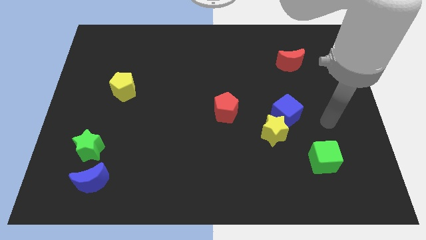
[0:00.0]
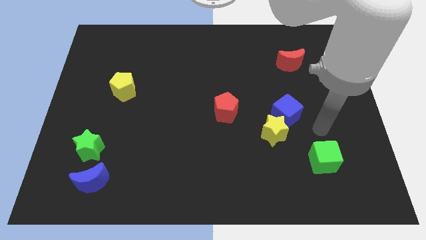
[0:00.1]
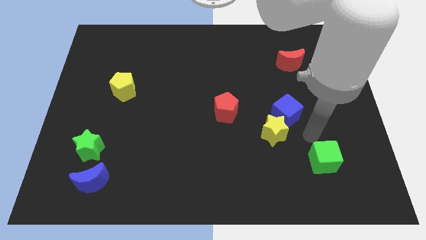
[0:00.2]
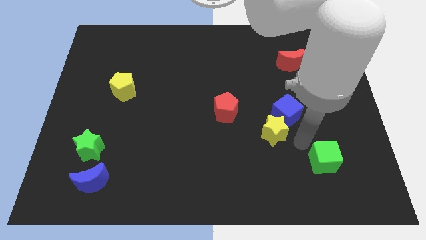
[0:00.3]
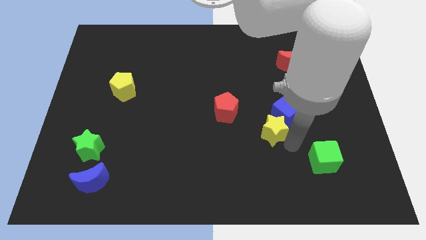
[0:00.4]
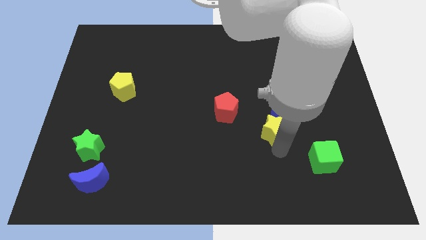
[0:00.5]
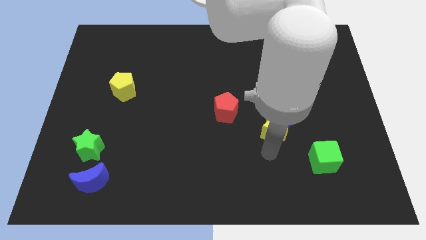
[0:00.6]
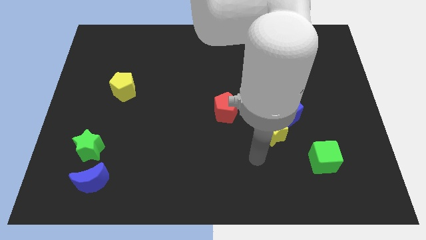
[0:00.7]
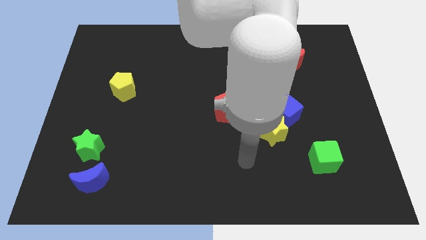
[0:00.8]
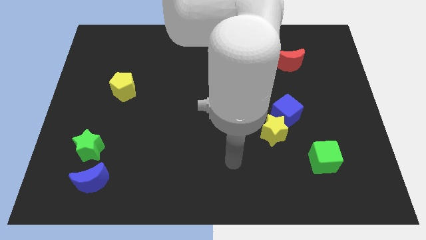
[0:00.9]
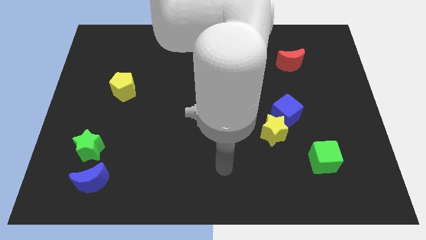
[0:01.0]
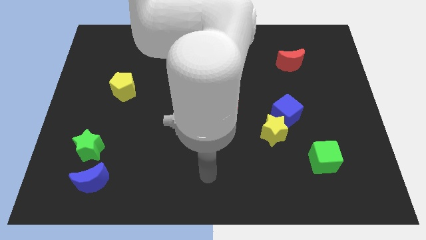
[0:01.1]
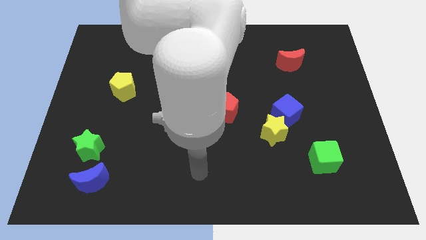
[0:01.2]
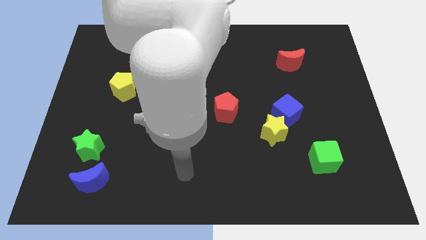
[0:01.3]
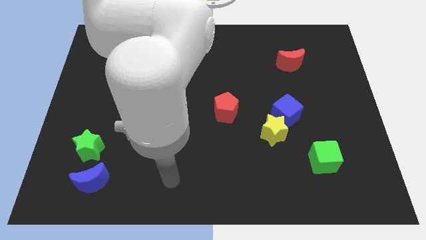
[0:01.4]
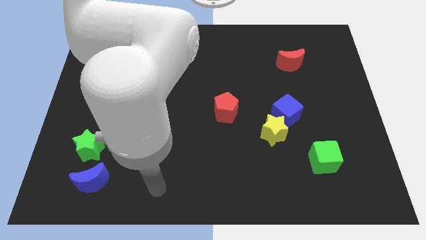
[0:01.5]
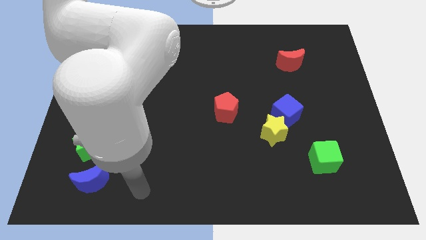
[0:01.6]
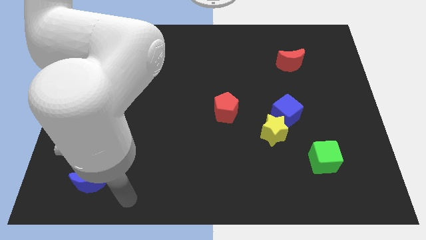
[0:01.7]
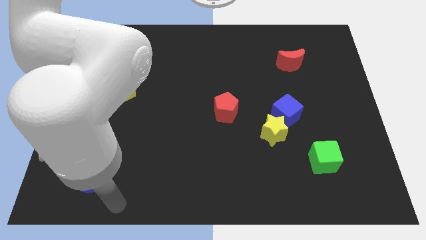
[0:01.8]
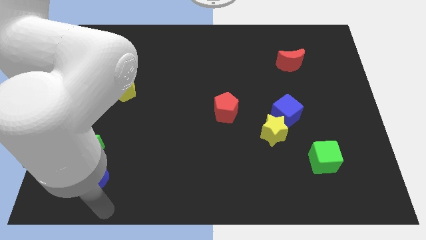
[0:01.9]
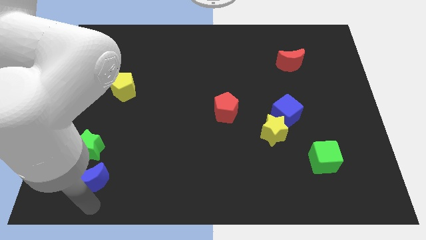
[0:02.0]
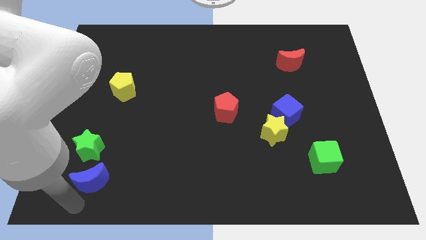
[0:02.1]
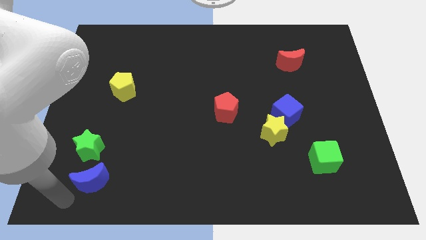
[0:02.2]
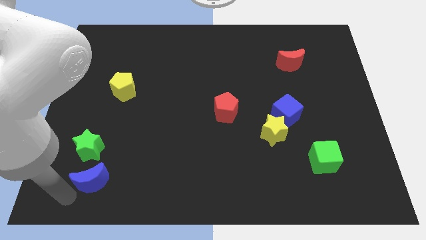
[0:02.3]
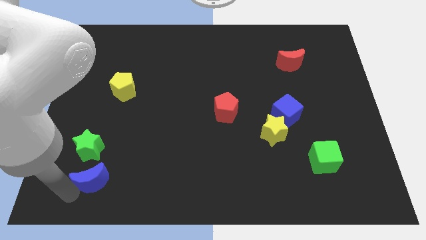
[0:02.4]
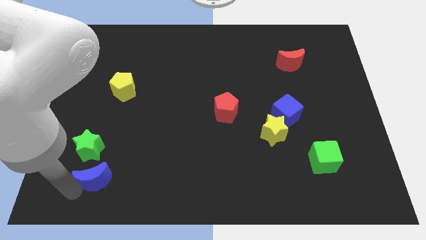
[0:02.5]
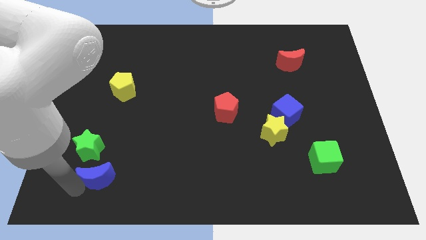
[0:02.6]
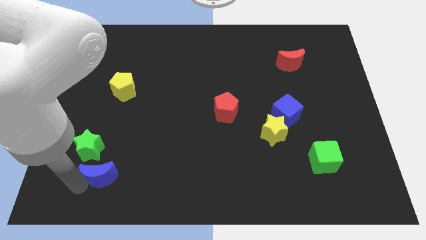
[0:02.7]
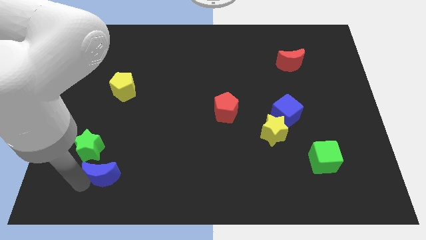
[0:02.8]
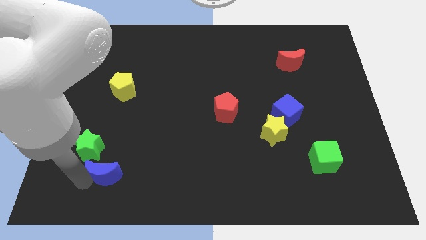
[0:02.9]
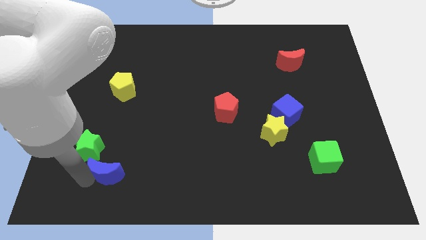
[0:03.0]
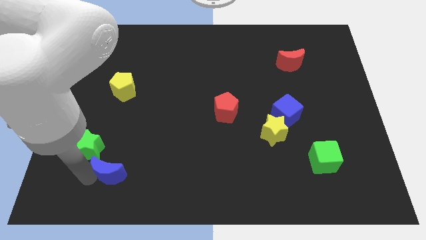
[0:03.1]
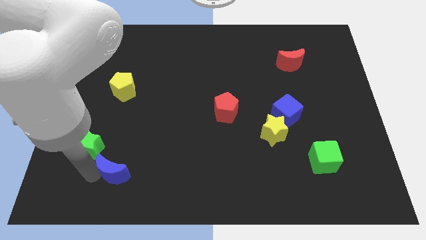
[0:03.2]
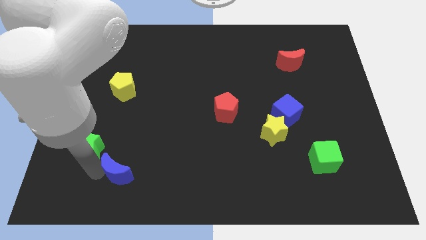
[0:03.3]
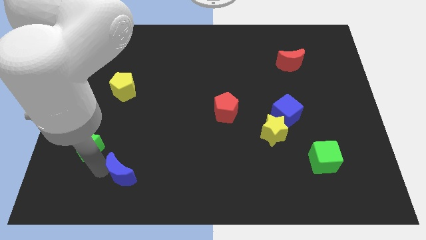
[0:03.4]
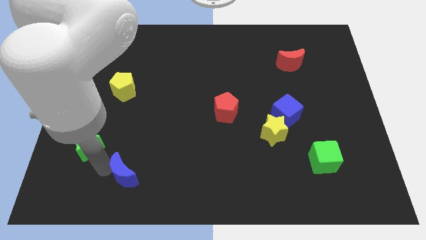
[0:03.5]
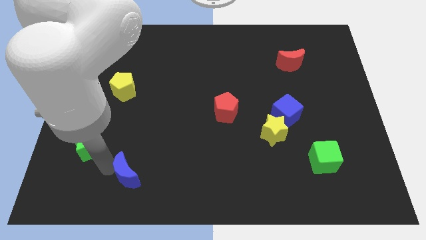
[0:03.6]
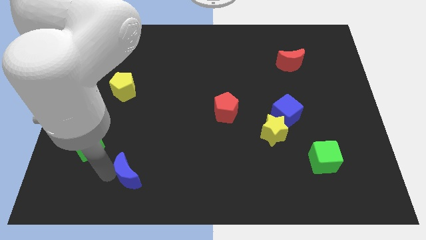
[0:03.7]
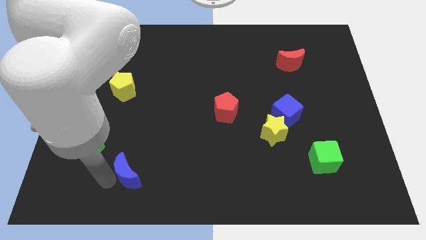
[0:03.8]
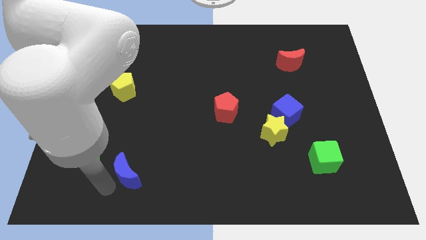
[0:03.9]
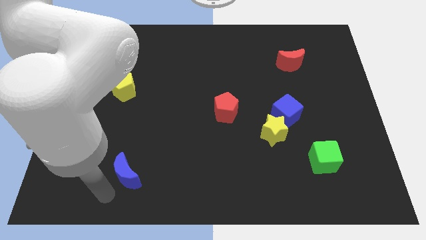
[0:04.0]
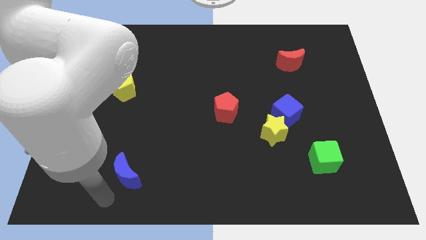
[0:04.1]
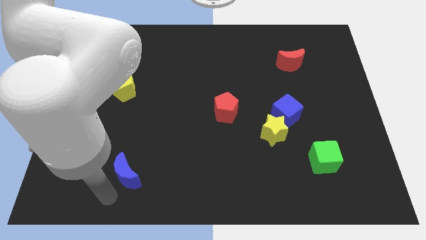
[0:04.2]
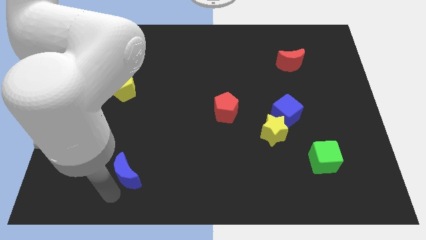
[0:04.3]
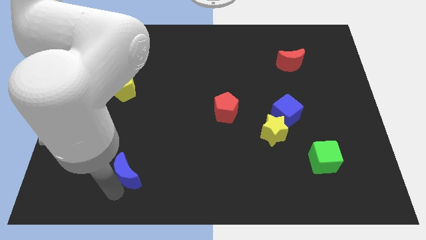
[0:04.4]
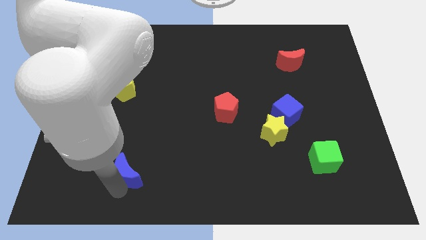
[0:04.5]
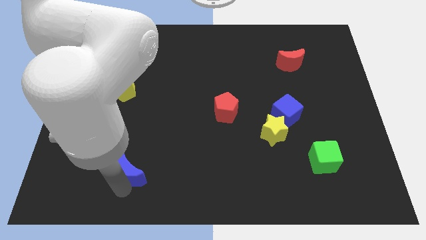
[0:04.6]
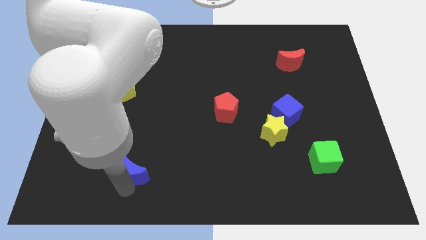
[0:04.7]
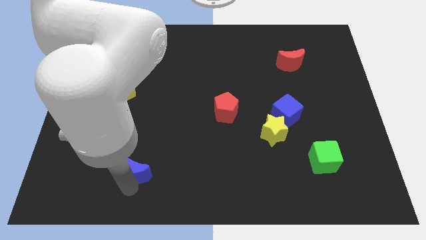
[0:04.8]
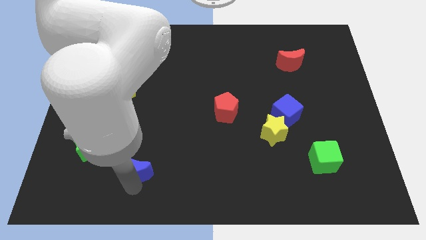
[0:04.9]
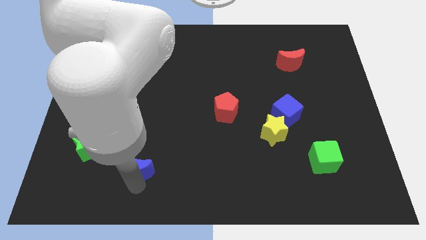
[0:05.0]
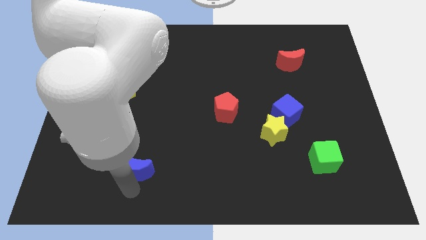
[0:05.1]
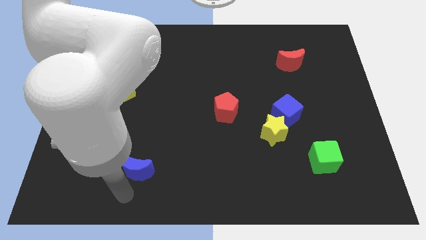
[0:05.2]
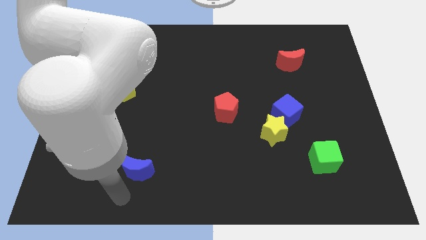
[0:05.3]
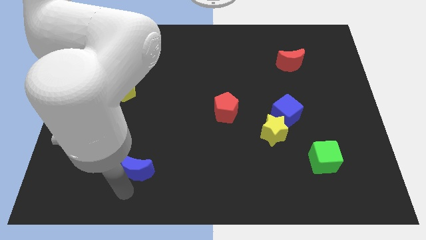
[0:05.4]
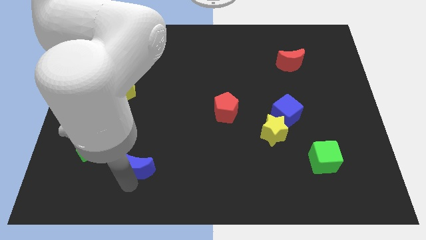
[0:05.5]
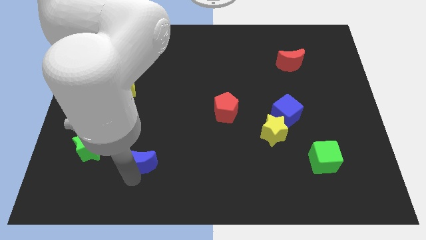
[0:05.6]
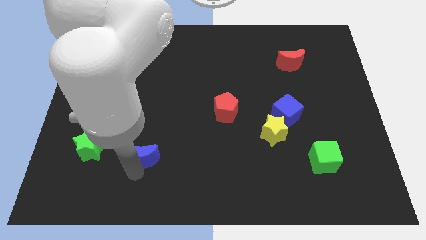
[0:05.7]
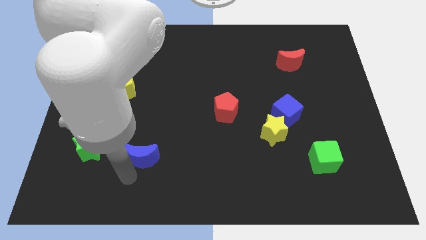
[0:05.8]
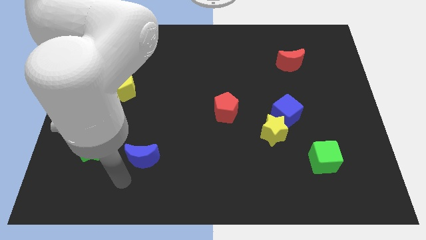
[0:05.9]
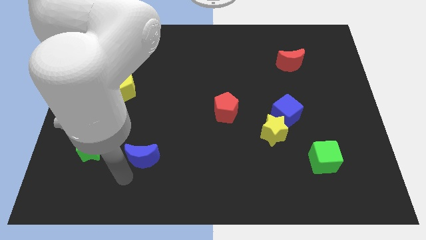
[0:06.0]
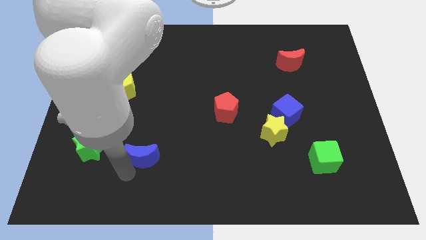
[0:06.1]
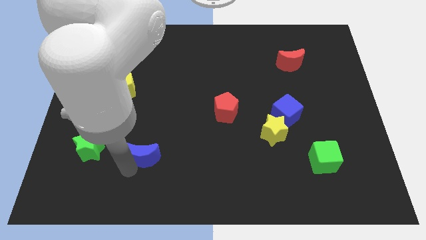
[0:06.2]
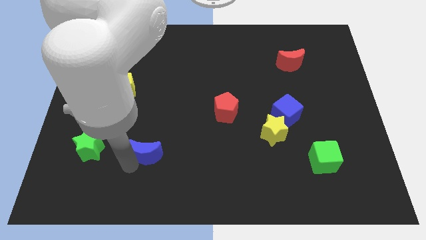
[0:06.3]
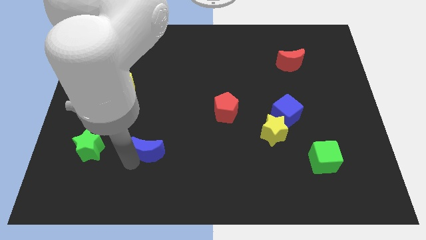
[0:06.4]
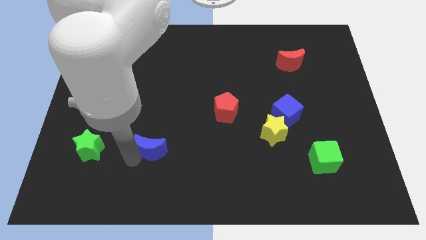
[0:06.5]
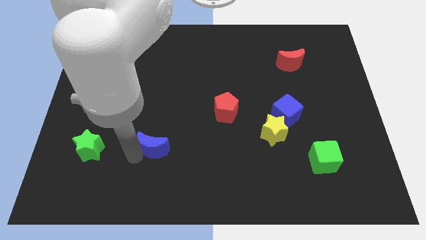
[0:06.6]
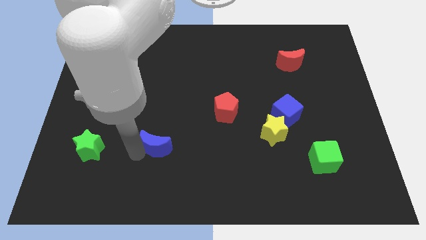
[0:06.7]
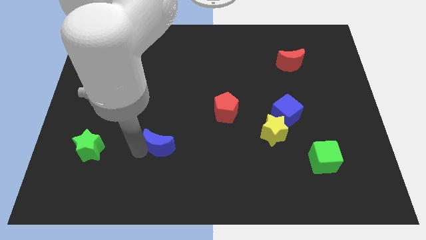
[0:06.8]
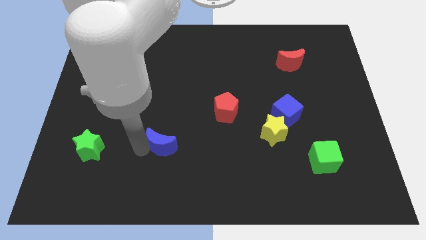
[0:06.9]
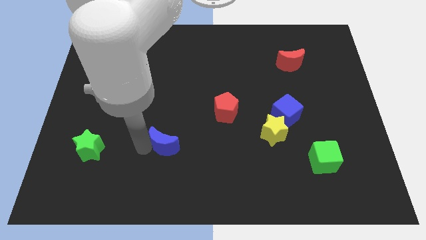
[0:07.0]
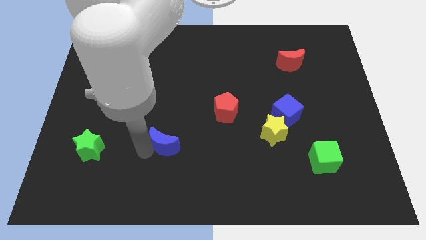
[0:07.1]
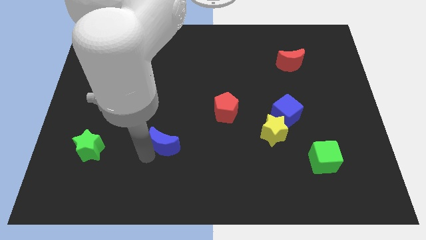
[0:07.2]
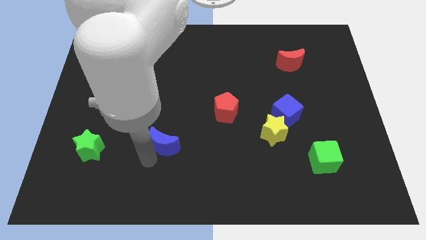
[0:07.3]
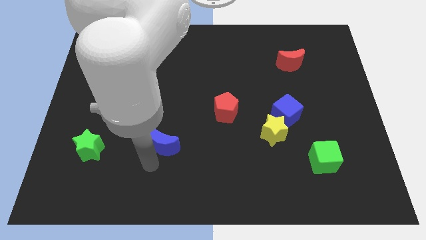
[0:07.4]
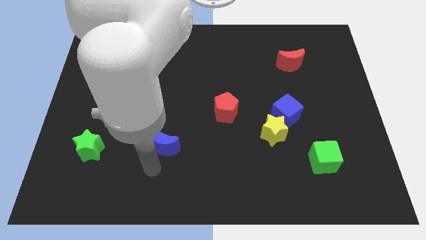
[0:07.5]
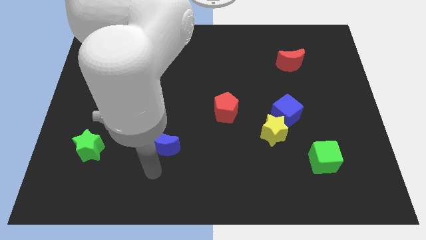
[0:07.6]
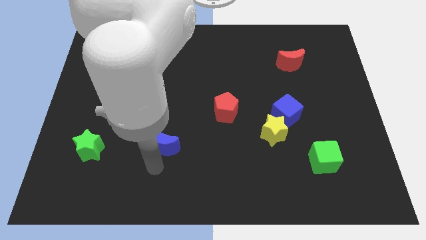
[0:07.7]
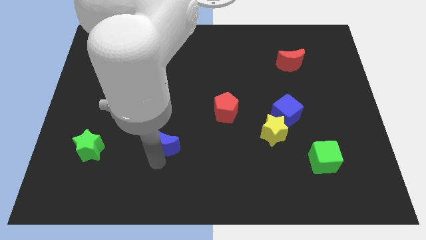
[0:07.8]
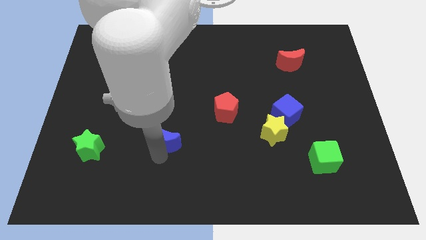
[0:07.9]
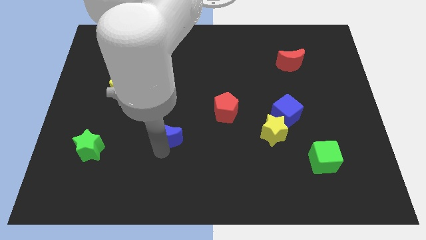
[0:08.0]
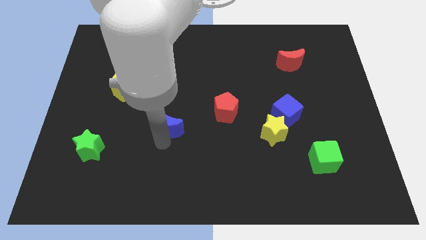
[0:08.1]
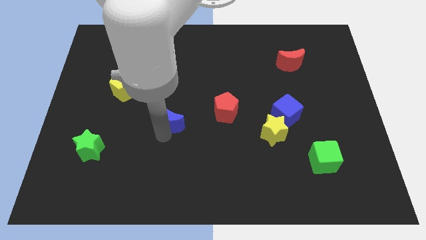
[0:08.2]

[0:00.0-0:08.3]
slide the blue moon diagonally upwards and right
